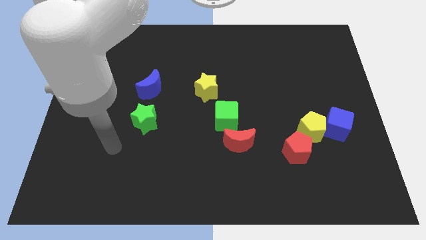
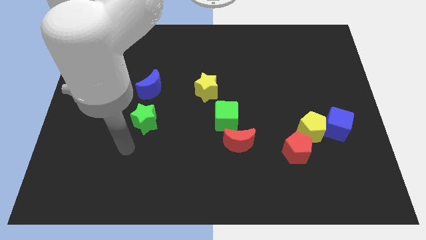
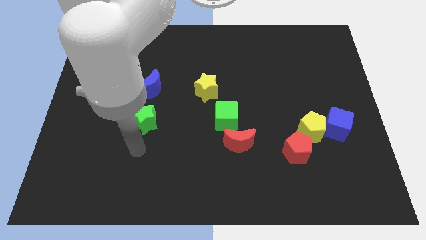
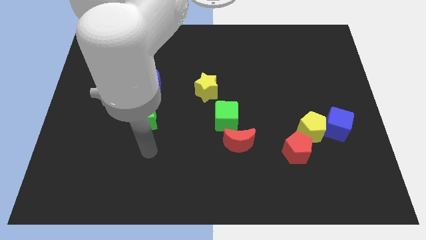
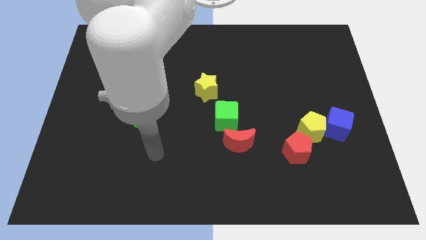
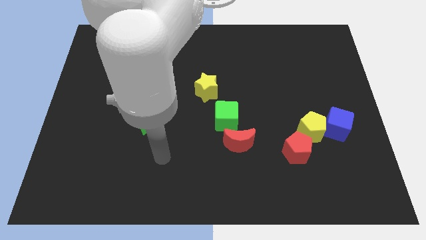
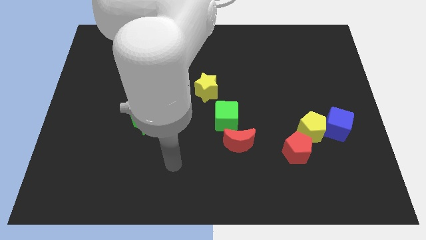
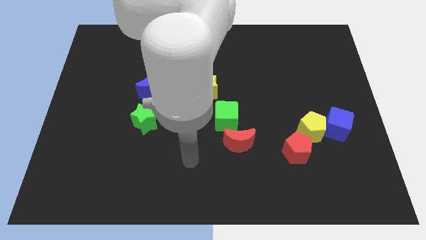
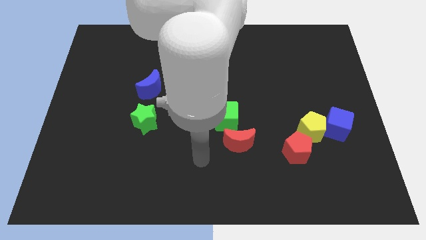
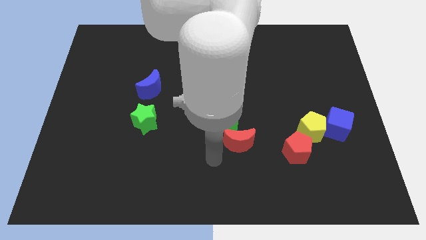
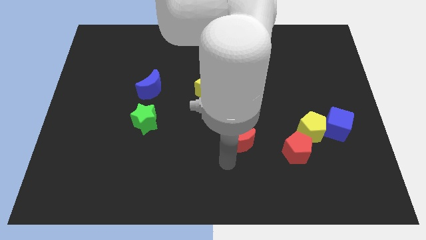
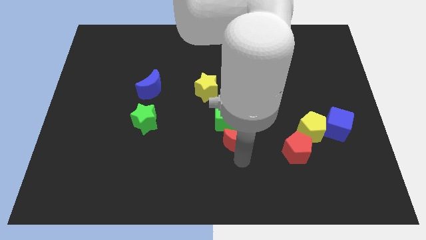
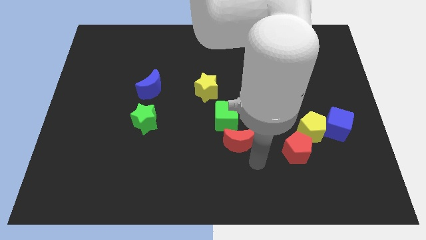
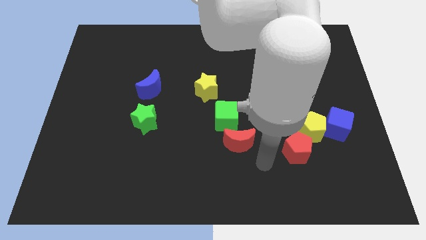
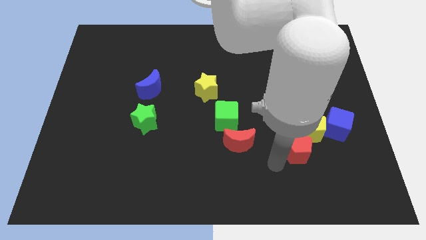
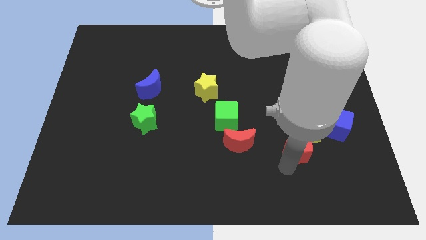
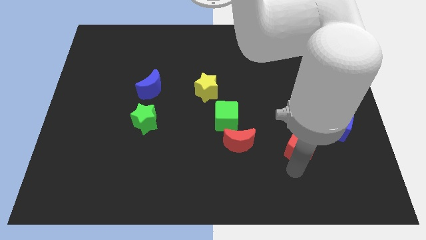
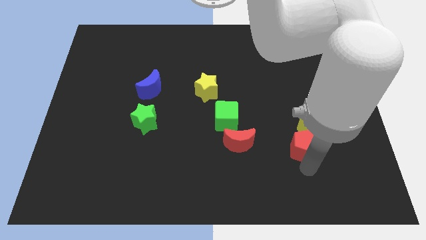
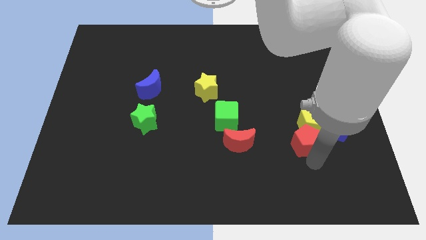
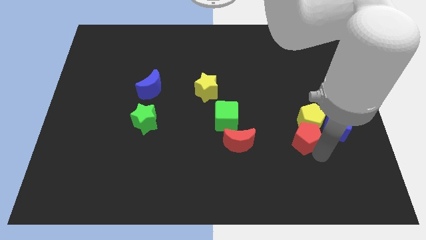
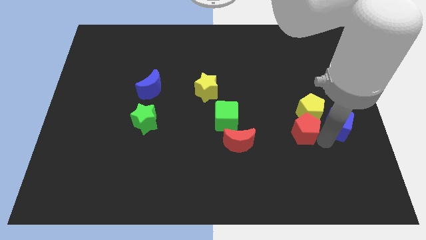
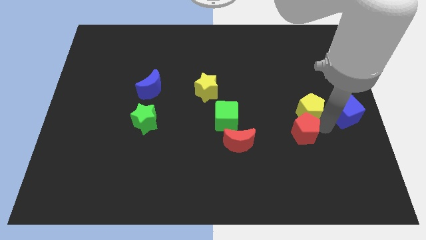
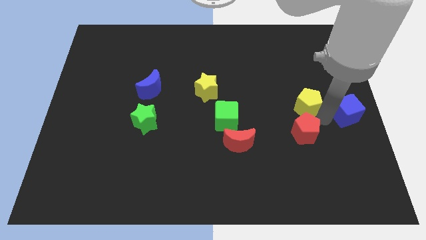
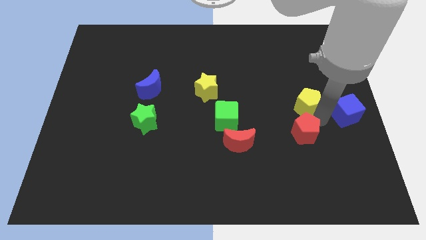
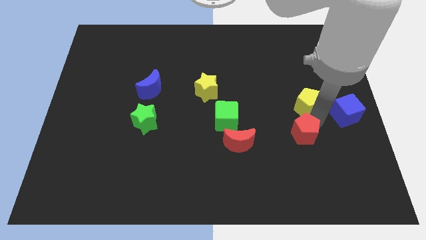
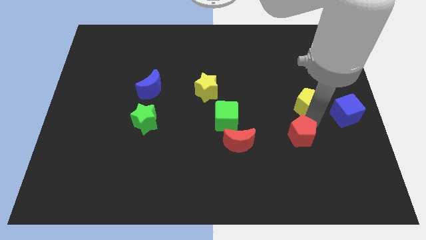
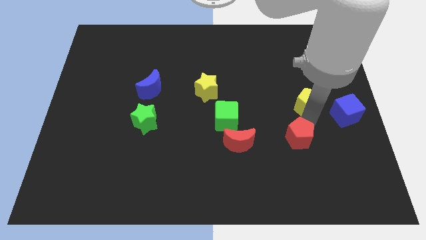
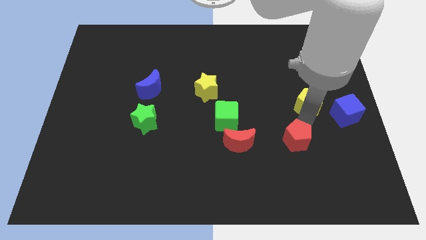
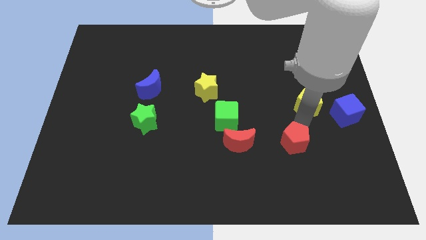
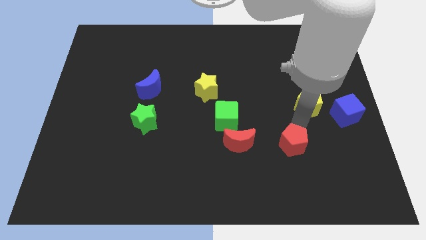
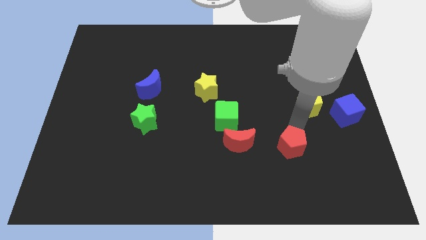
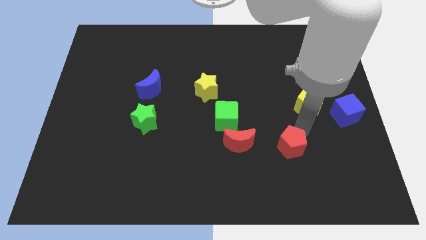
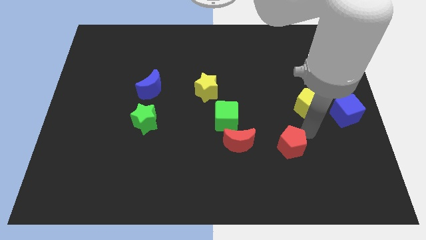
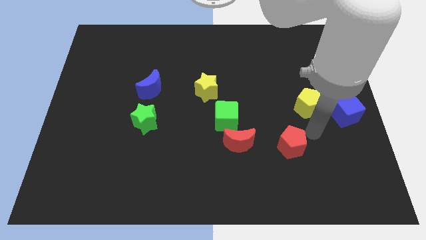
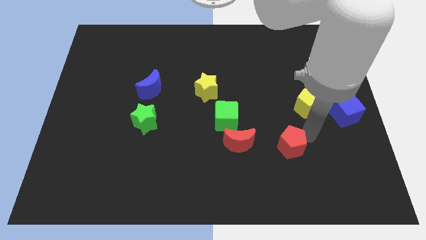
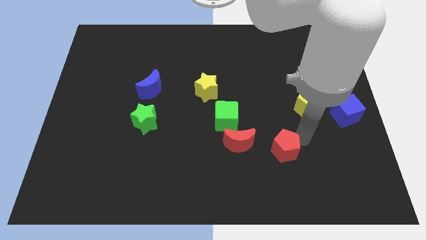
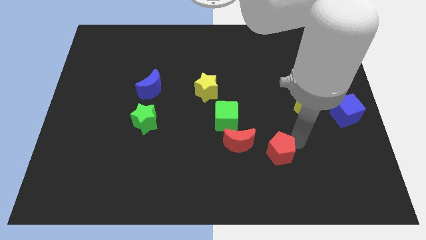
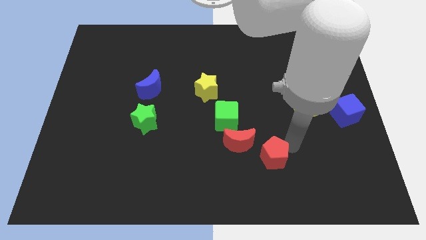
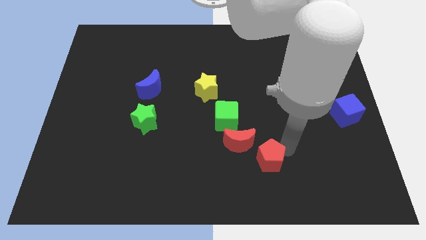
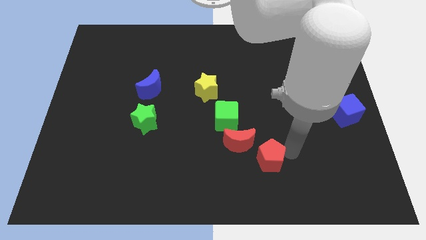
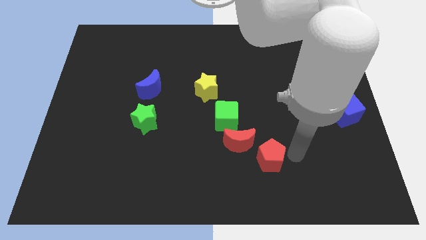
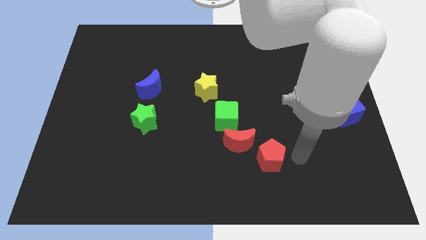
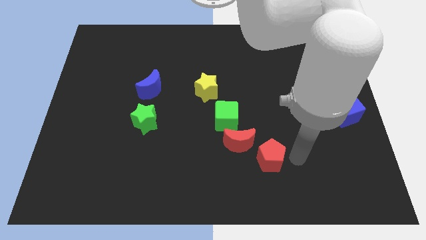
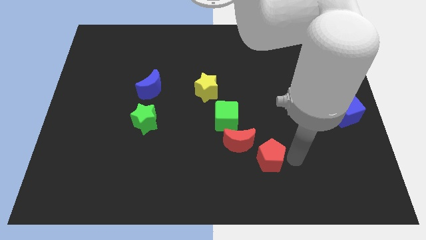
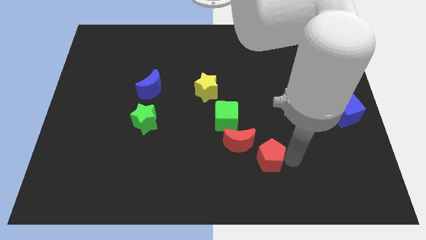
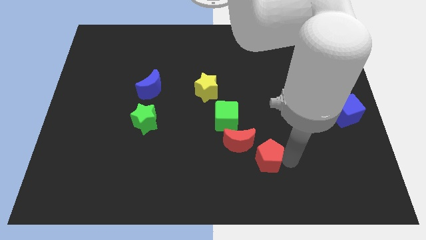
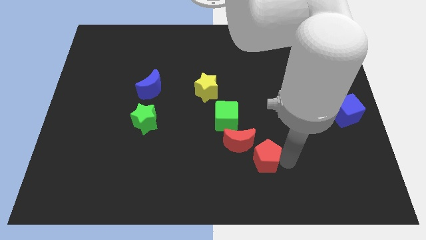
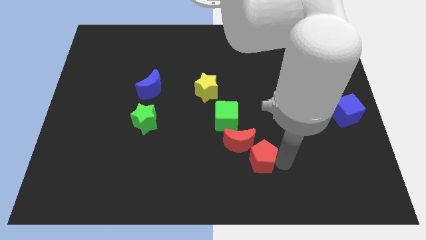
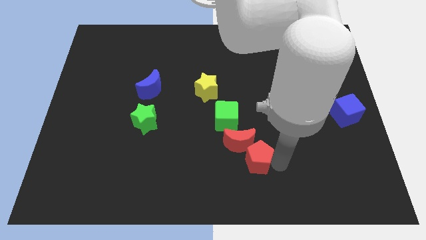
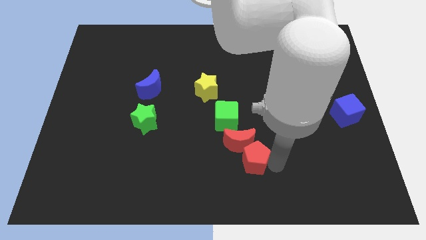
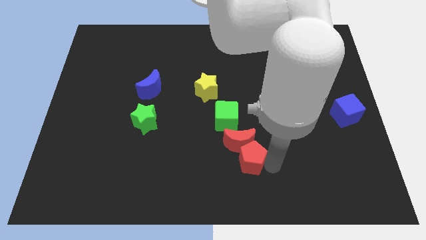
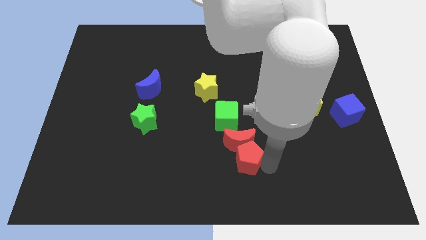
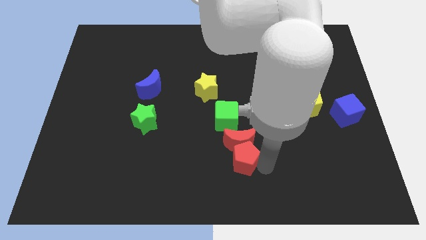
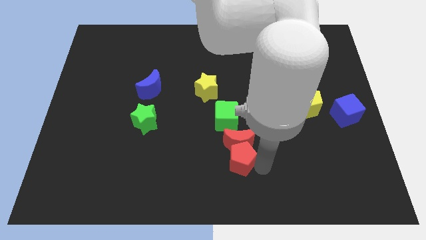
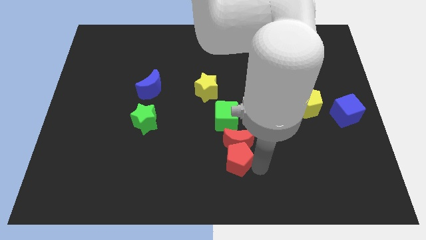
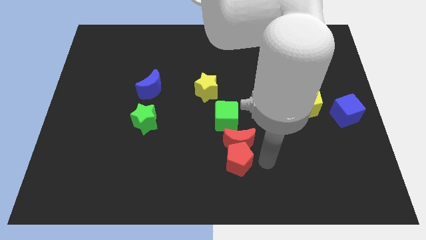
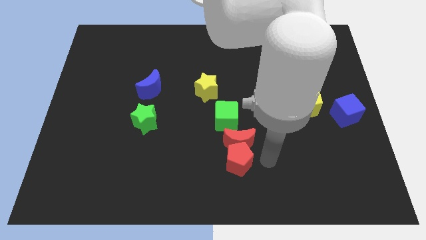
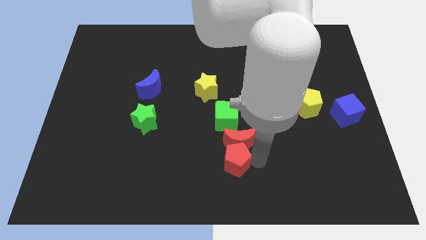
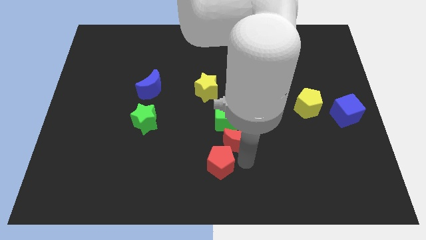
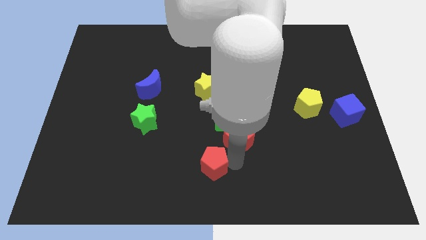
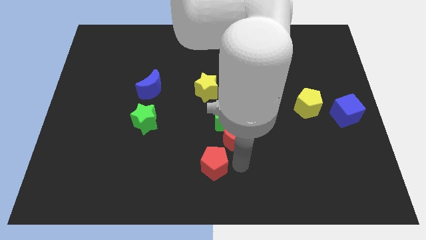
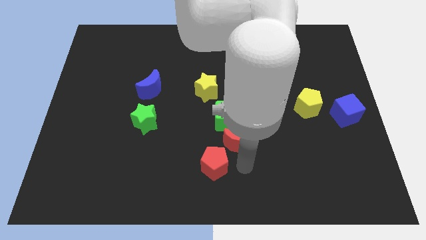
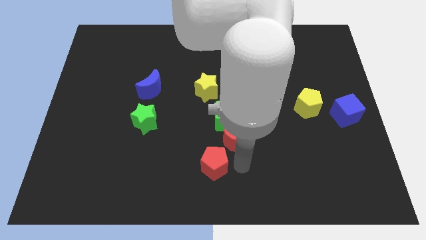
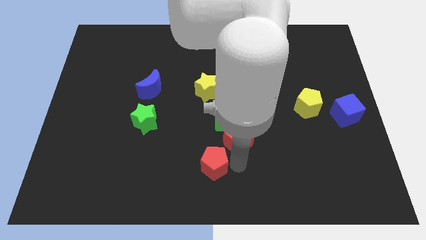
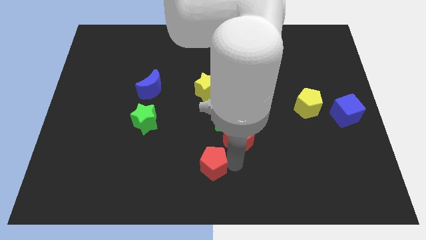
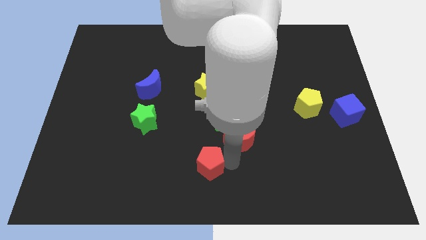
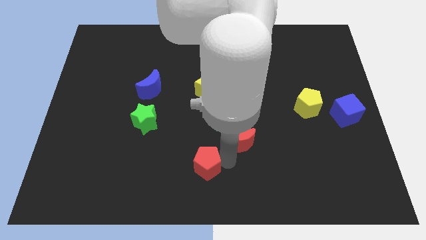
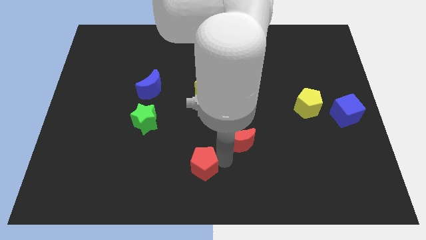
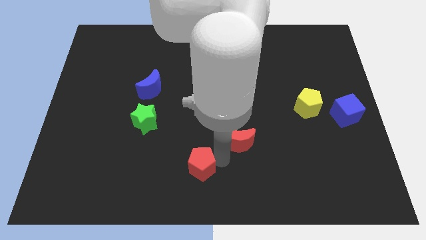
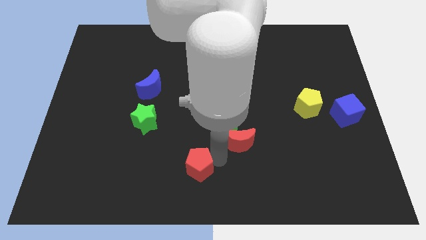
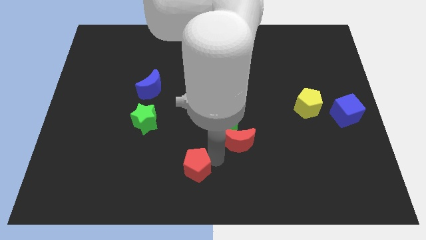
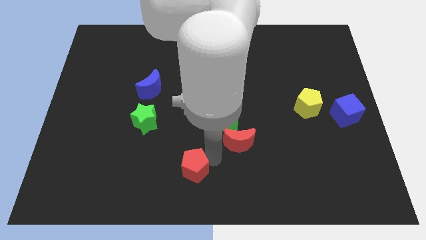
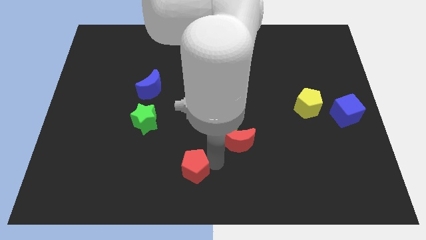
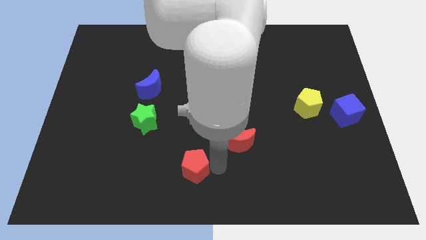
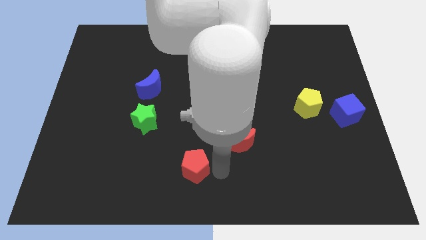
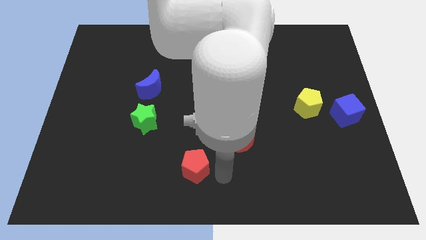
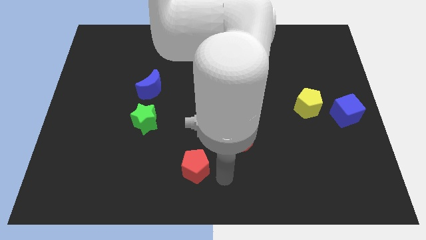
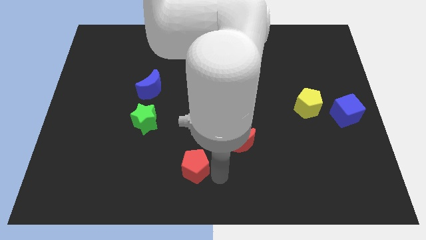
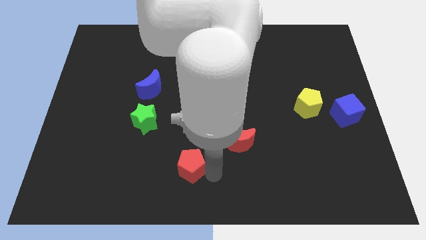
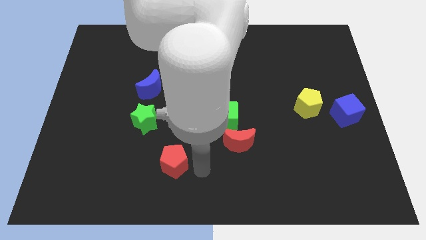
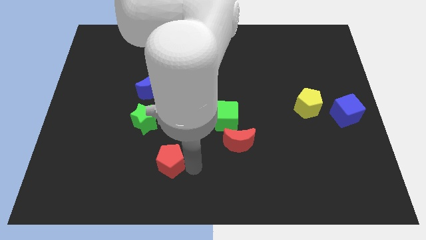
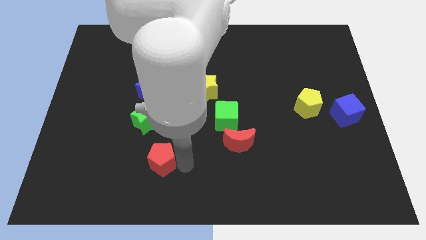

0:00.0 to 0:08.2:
push the red pentagon to the bottom of the green star
